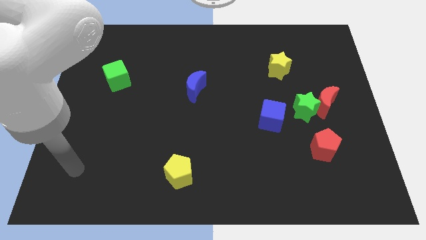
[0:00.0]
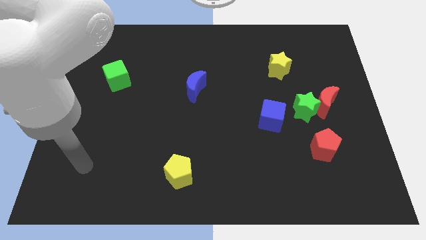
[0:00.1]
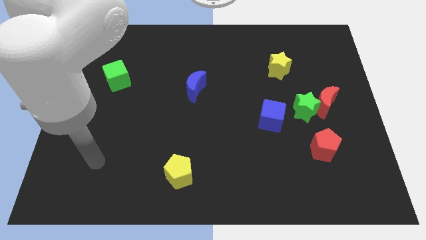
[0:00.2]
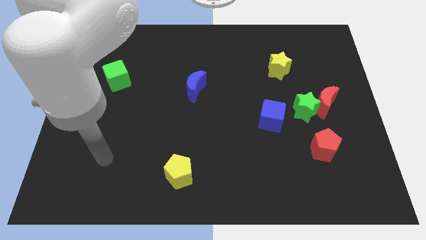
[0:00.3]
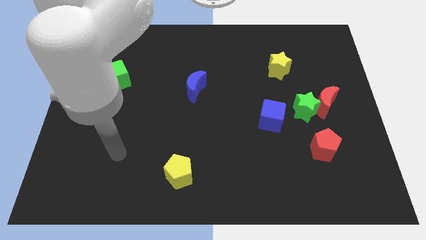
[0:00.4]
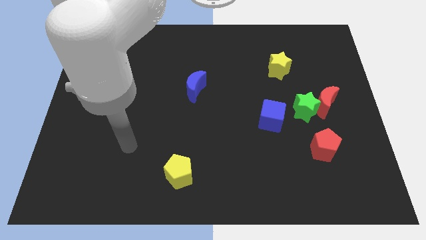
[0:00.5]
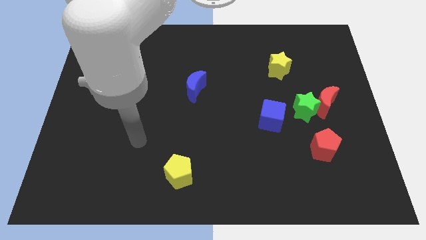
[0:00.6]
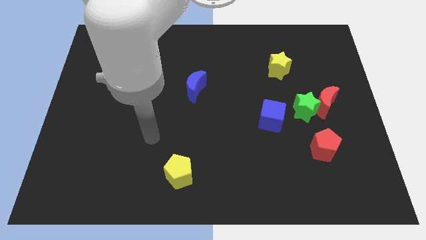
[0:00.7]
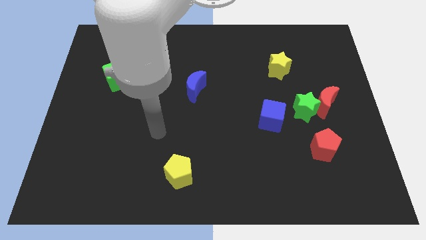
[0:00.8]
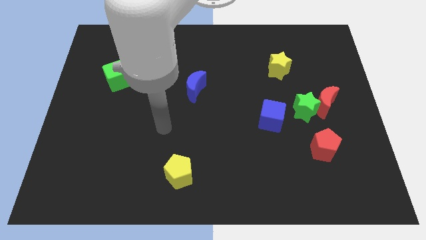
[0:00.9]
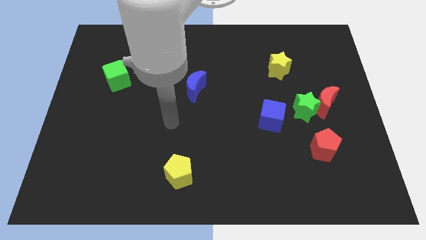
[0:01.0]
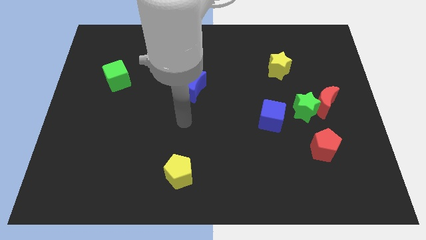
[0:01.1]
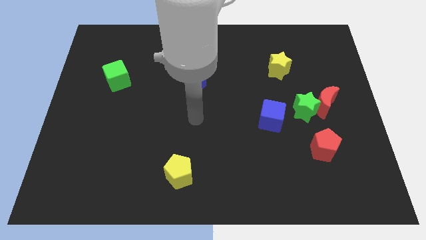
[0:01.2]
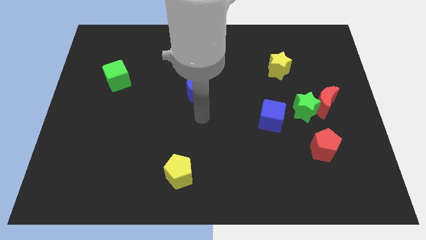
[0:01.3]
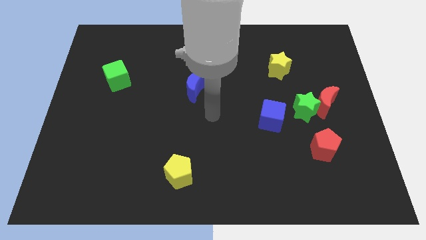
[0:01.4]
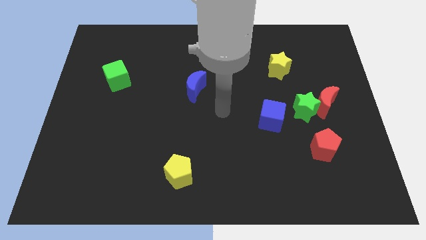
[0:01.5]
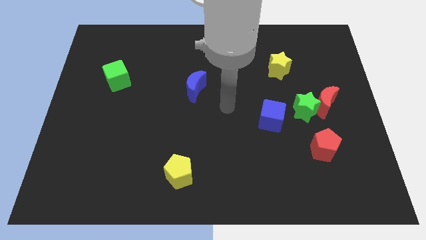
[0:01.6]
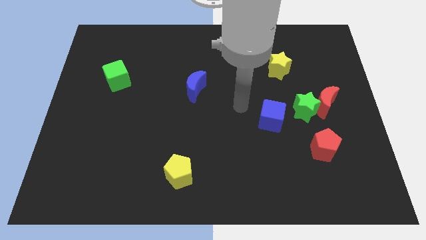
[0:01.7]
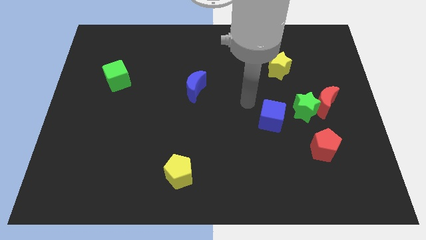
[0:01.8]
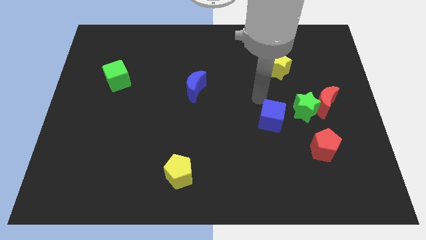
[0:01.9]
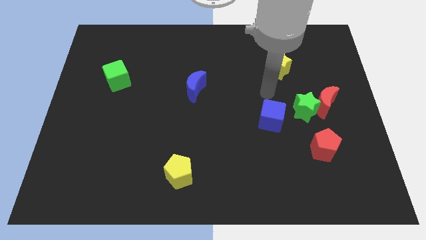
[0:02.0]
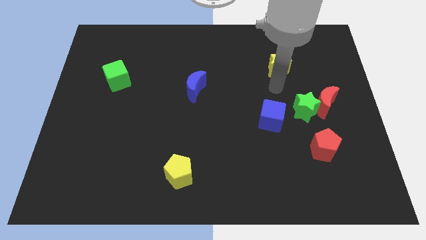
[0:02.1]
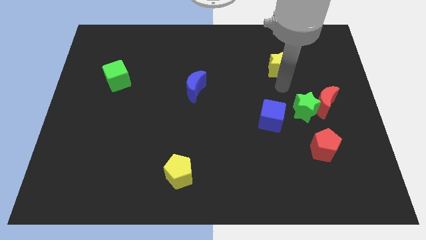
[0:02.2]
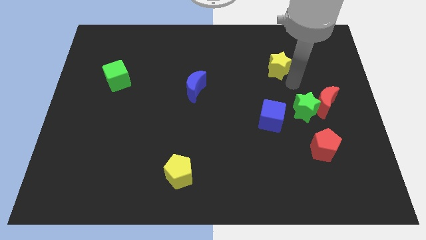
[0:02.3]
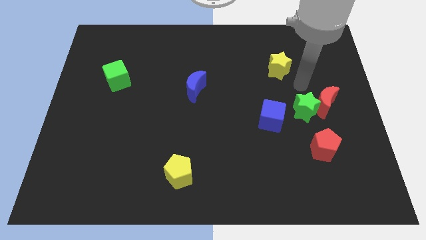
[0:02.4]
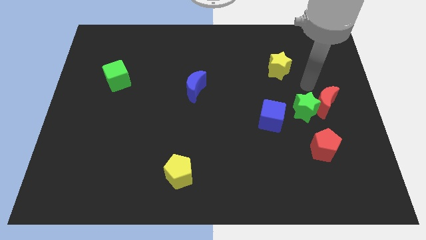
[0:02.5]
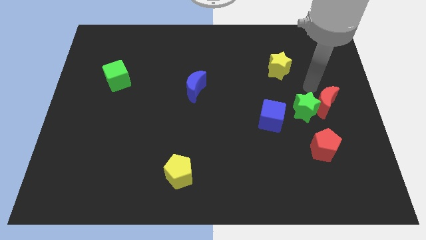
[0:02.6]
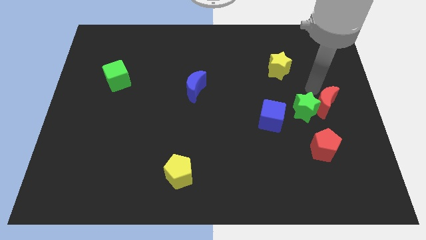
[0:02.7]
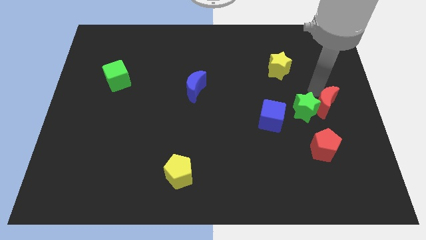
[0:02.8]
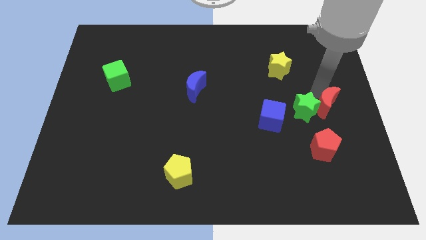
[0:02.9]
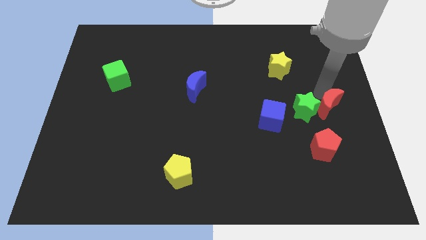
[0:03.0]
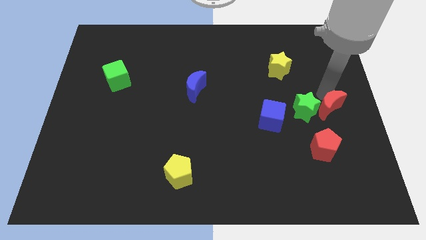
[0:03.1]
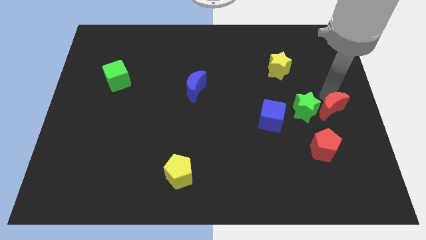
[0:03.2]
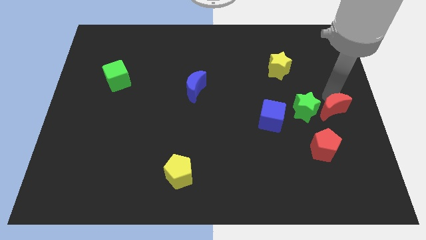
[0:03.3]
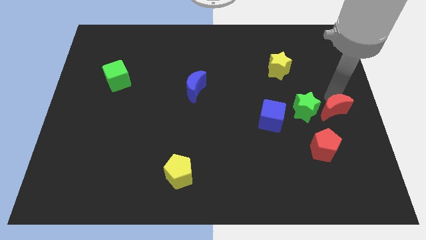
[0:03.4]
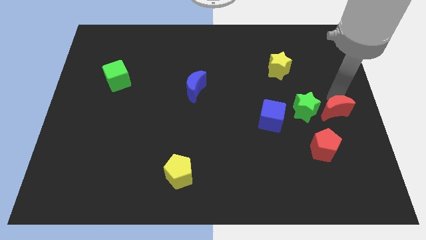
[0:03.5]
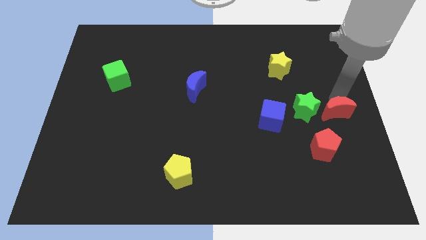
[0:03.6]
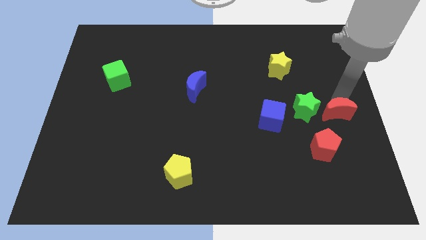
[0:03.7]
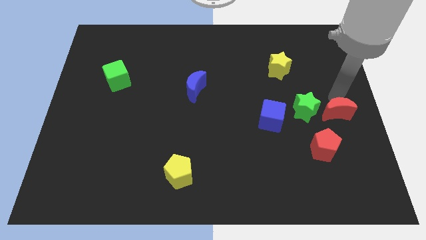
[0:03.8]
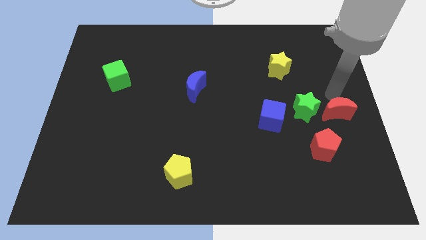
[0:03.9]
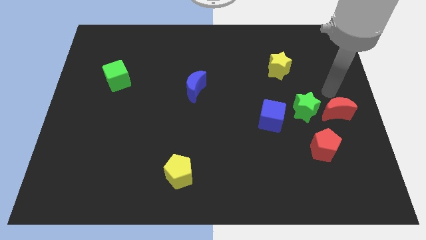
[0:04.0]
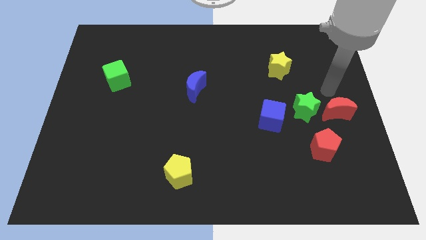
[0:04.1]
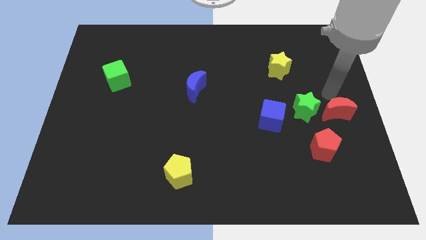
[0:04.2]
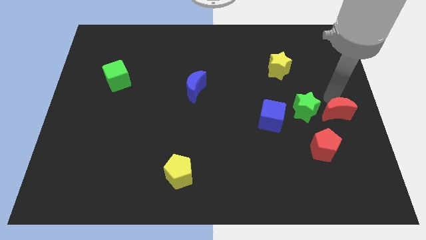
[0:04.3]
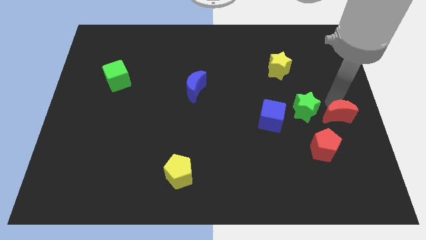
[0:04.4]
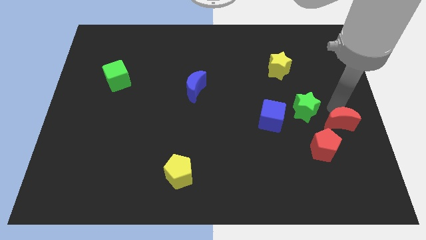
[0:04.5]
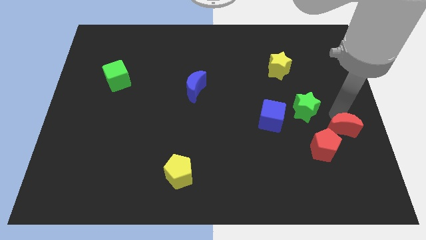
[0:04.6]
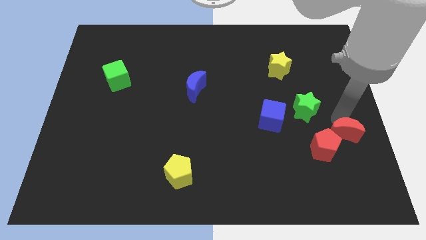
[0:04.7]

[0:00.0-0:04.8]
slightly slide the red moon down

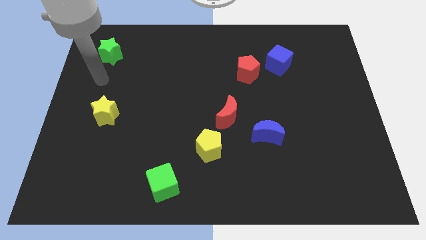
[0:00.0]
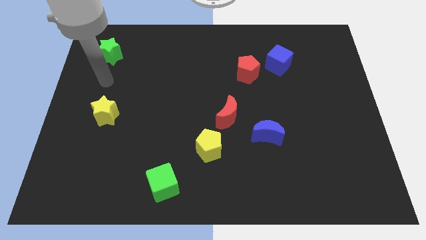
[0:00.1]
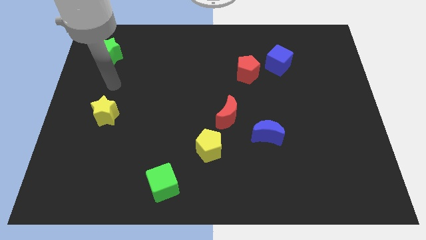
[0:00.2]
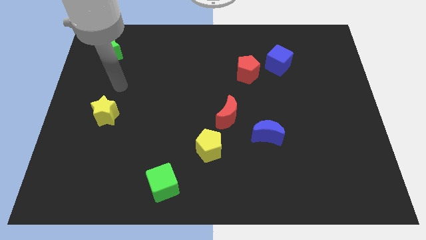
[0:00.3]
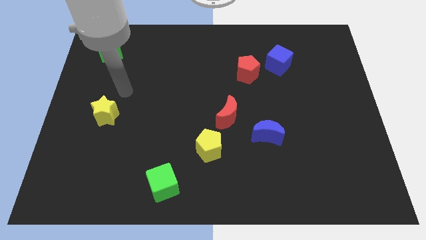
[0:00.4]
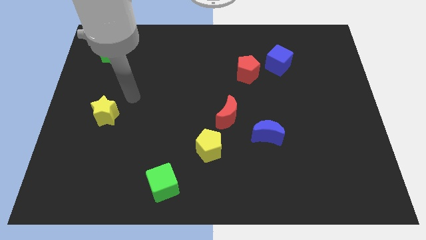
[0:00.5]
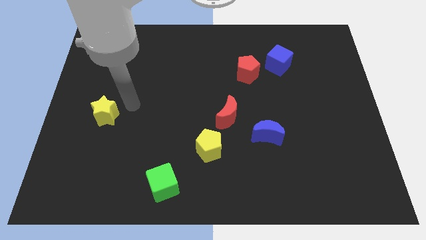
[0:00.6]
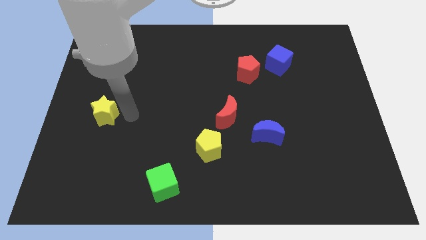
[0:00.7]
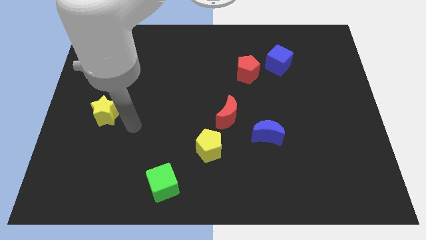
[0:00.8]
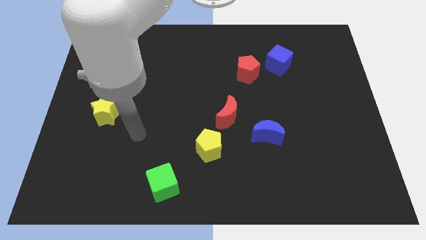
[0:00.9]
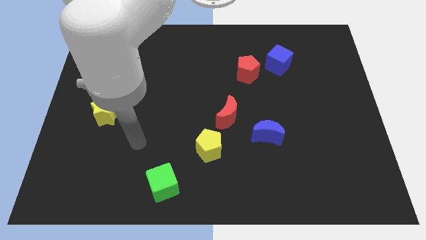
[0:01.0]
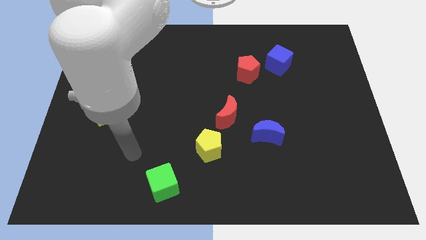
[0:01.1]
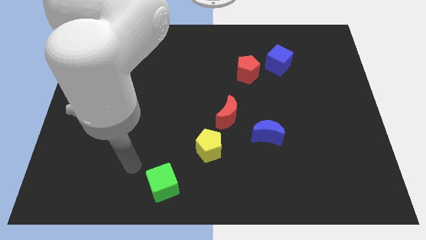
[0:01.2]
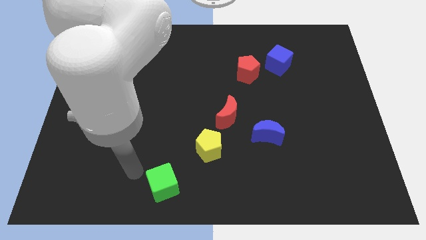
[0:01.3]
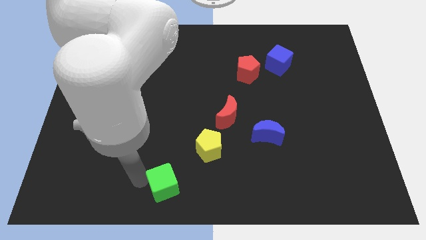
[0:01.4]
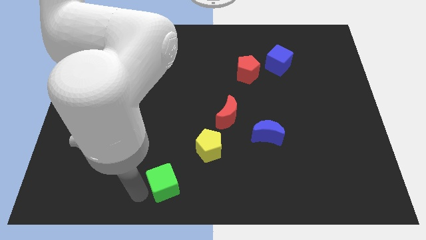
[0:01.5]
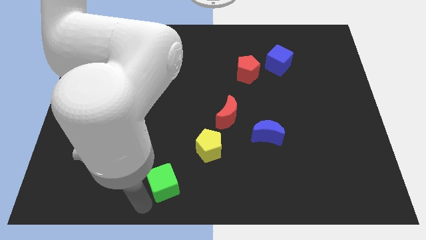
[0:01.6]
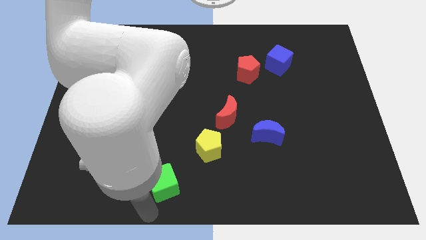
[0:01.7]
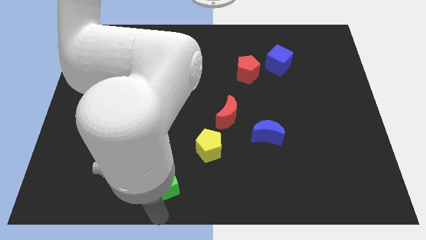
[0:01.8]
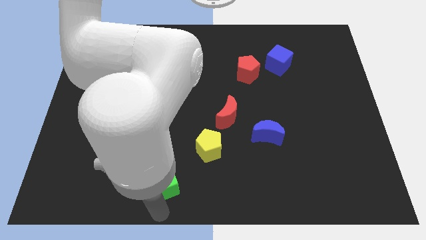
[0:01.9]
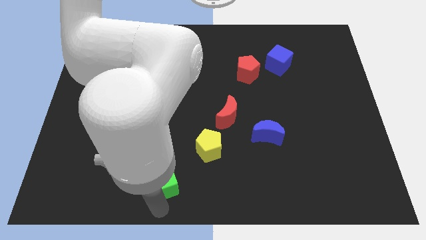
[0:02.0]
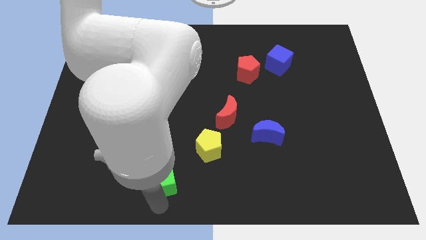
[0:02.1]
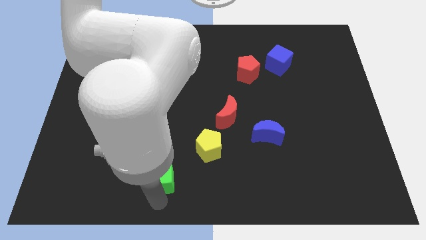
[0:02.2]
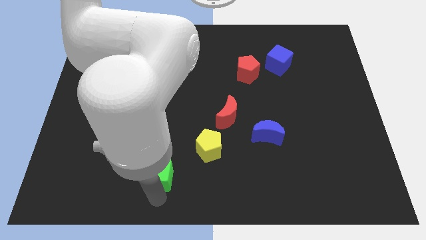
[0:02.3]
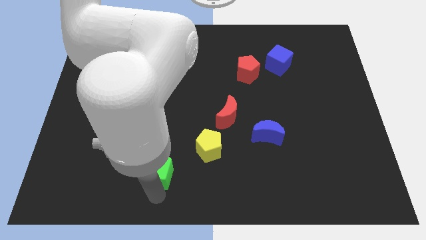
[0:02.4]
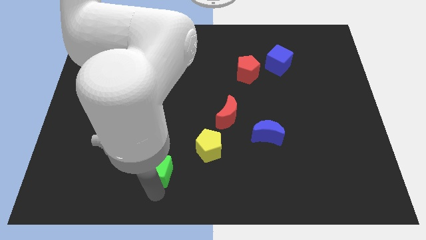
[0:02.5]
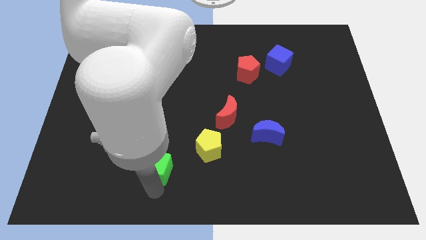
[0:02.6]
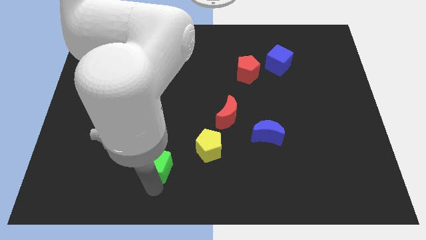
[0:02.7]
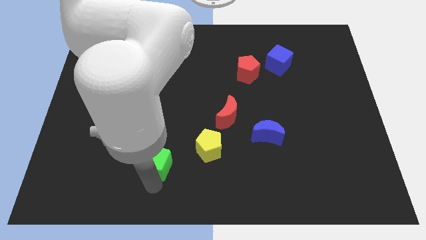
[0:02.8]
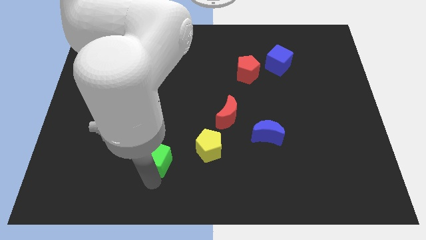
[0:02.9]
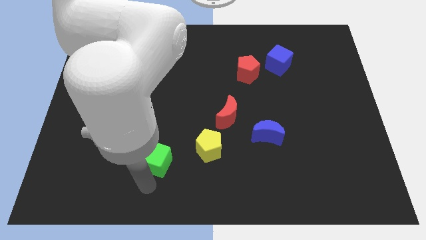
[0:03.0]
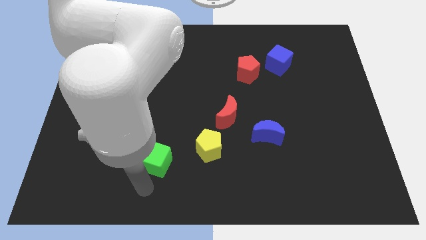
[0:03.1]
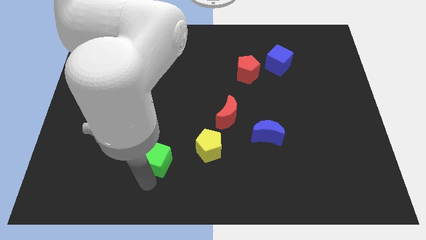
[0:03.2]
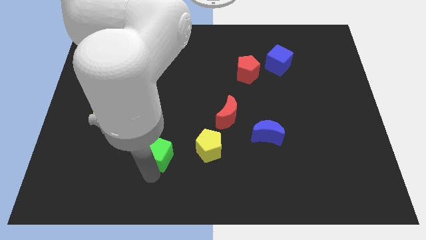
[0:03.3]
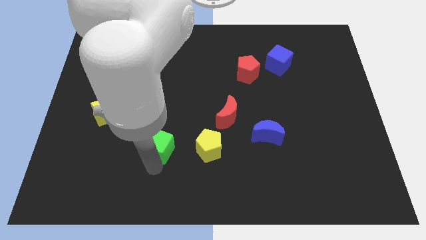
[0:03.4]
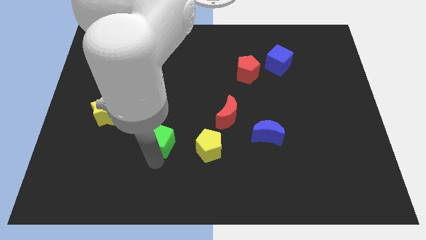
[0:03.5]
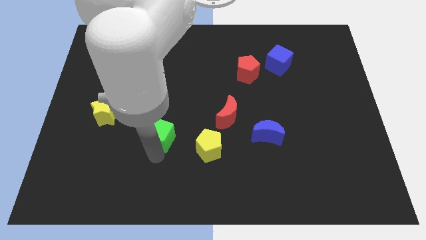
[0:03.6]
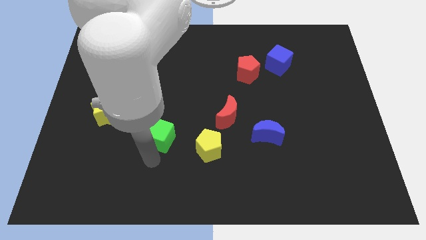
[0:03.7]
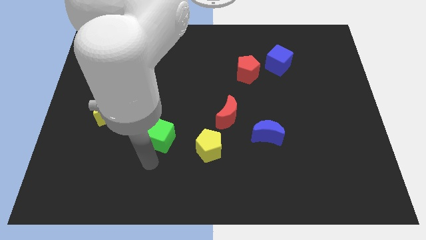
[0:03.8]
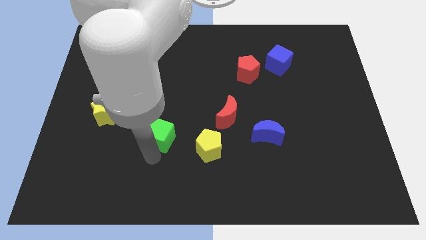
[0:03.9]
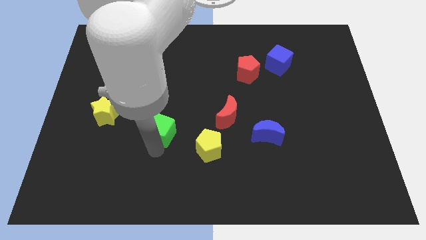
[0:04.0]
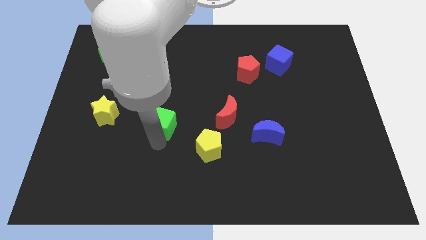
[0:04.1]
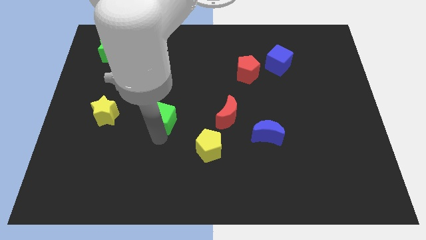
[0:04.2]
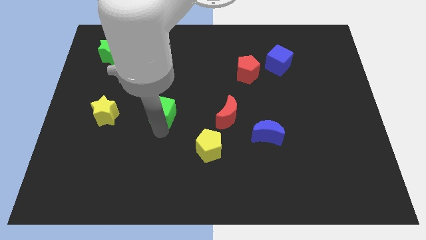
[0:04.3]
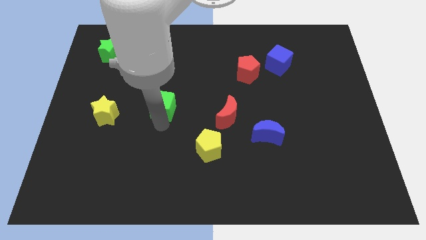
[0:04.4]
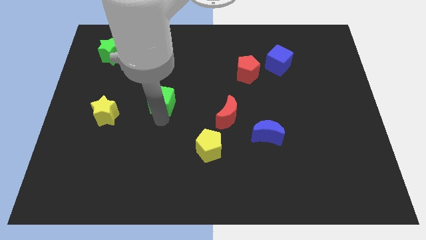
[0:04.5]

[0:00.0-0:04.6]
push the green cube up
